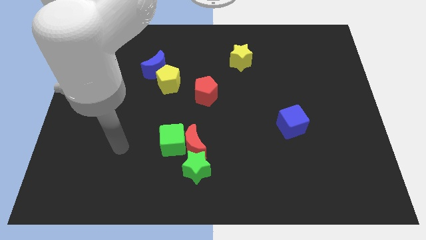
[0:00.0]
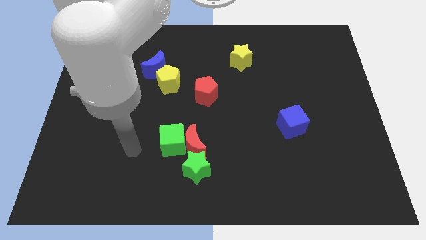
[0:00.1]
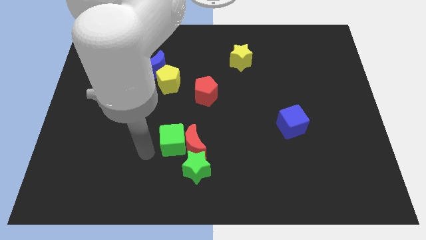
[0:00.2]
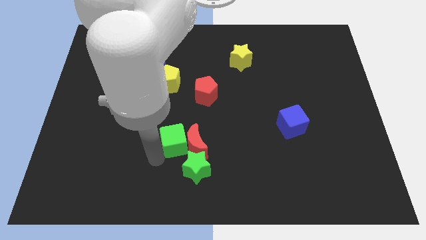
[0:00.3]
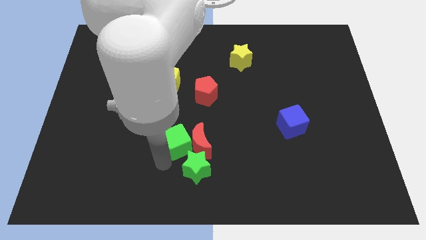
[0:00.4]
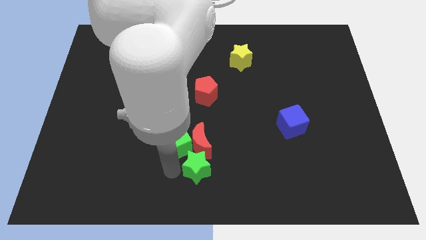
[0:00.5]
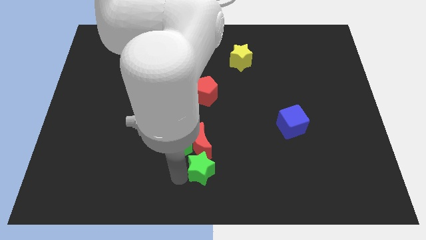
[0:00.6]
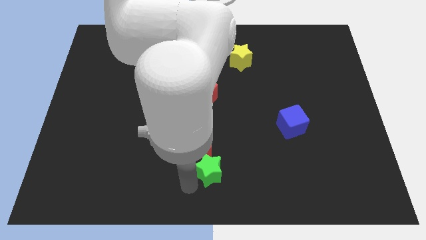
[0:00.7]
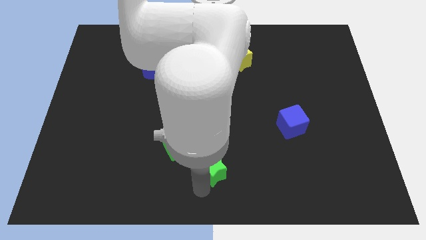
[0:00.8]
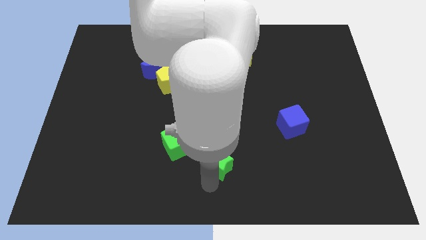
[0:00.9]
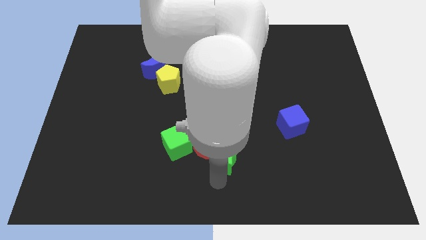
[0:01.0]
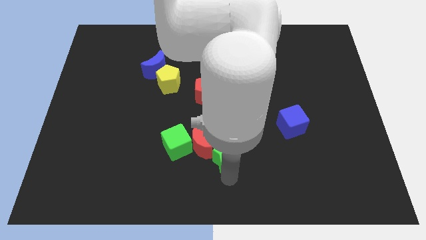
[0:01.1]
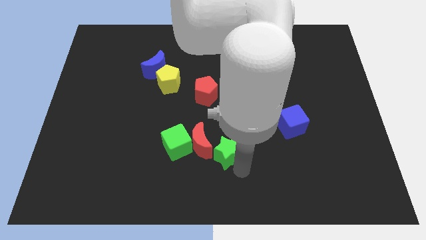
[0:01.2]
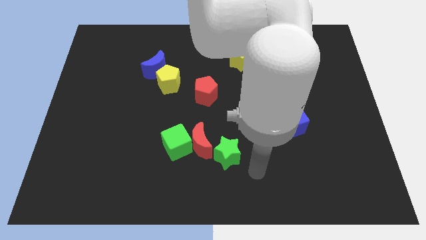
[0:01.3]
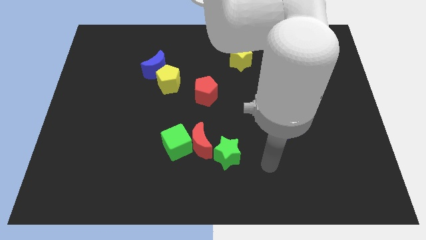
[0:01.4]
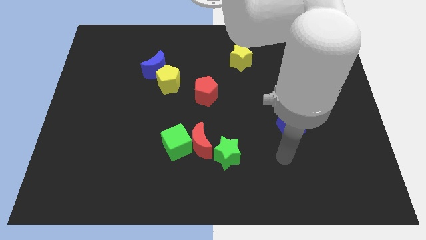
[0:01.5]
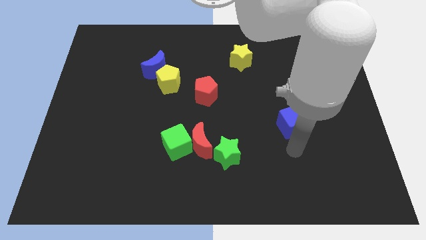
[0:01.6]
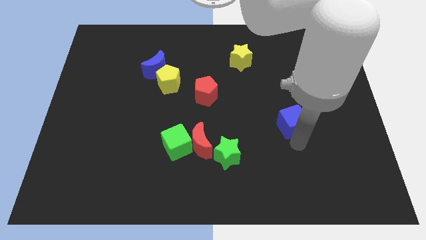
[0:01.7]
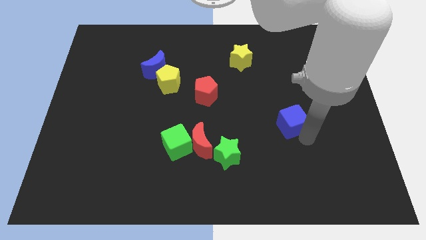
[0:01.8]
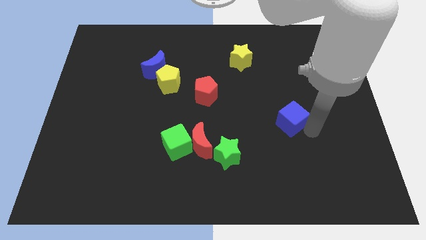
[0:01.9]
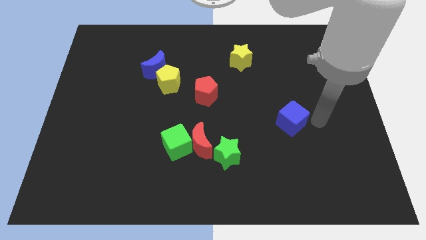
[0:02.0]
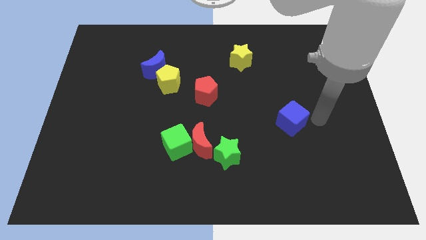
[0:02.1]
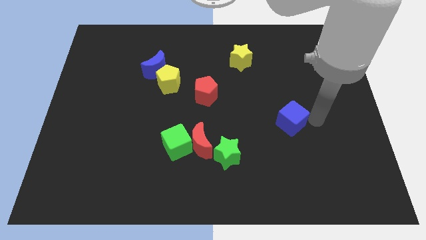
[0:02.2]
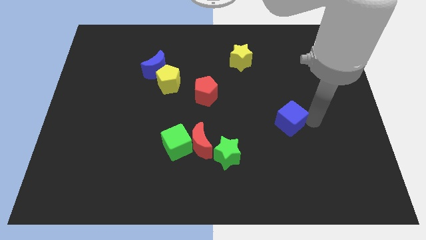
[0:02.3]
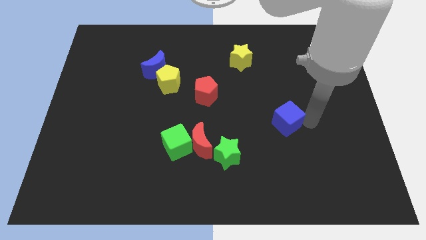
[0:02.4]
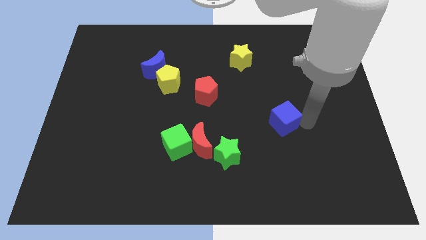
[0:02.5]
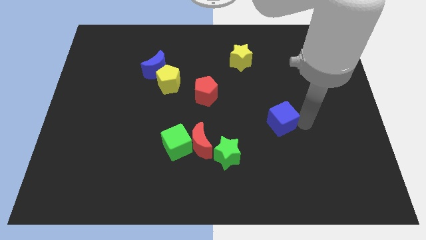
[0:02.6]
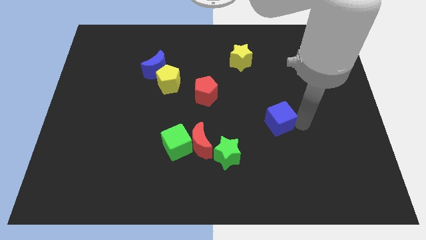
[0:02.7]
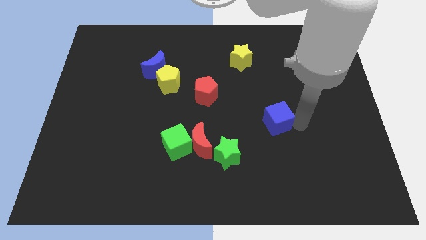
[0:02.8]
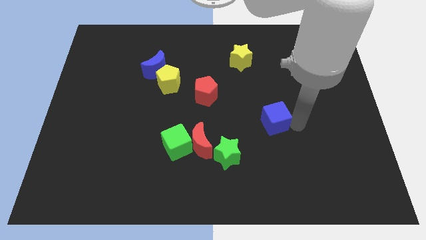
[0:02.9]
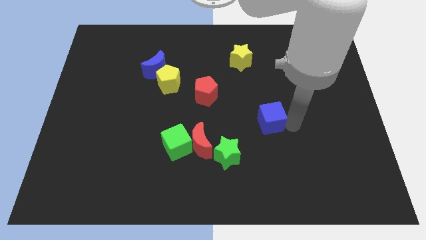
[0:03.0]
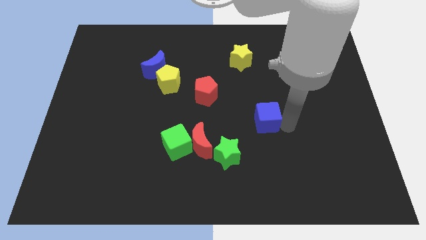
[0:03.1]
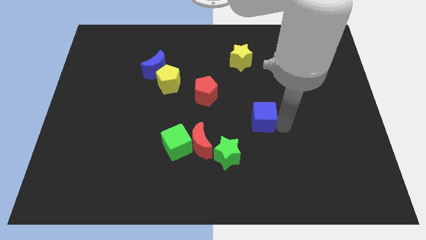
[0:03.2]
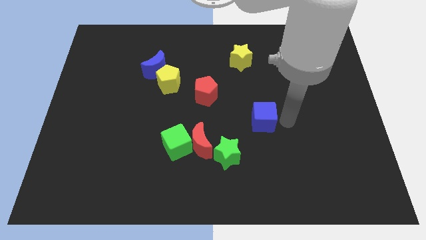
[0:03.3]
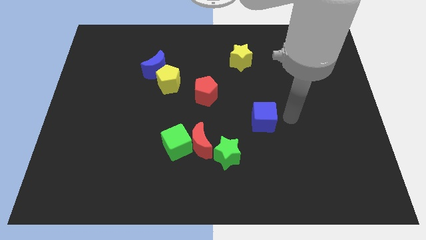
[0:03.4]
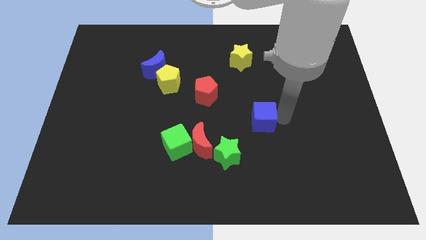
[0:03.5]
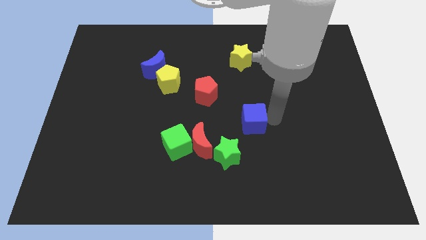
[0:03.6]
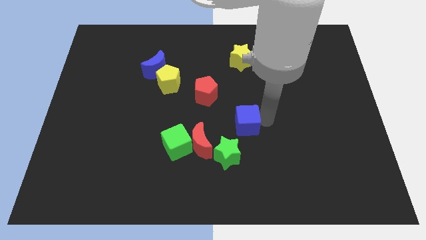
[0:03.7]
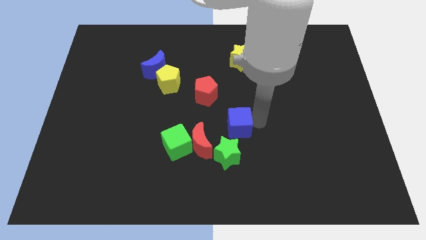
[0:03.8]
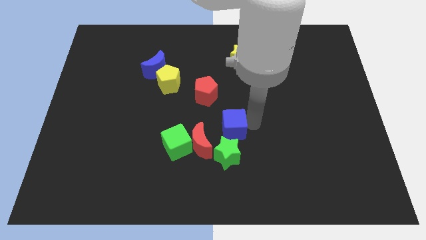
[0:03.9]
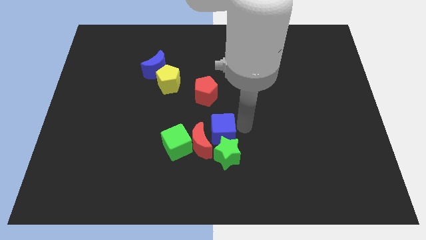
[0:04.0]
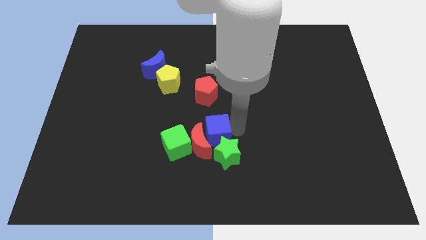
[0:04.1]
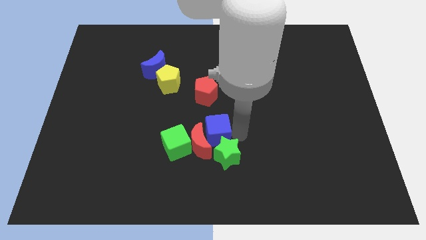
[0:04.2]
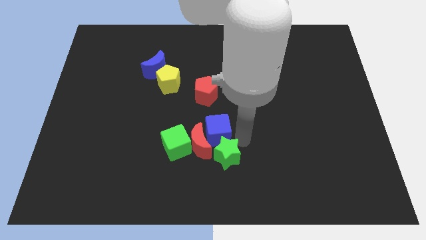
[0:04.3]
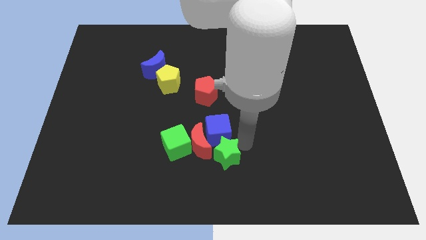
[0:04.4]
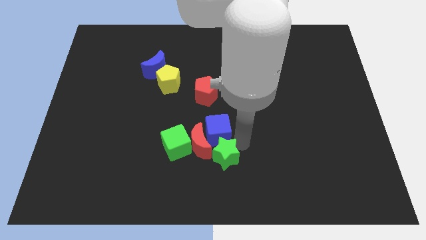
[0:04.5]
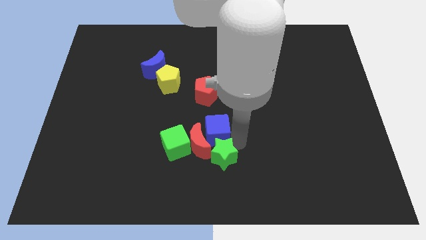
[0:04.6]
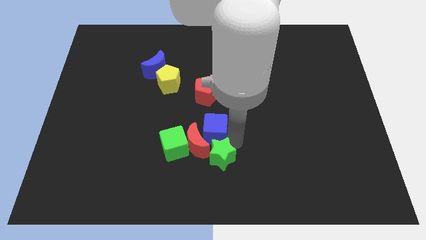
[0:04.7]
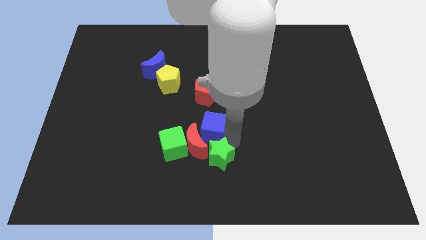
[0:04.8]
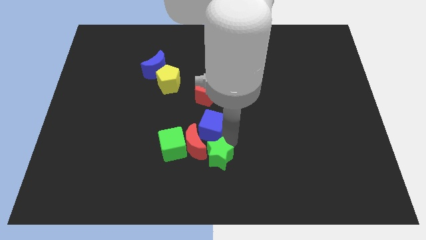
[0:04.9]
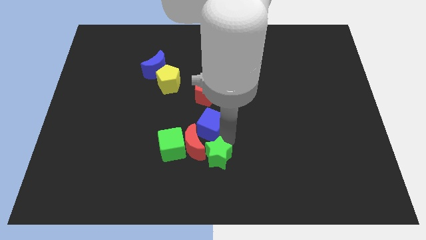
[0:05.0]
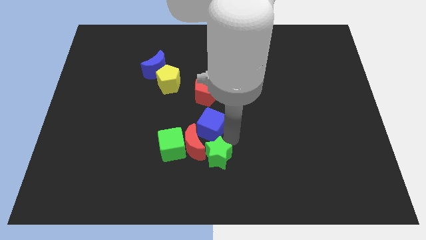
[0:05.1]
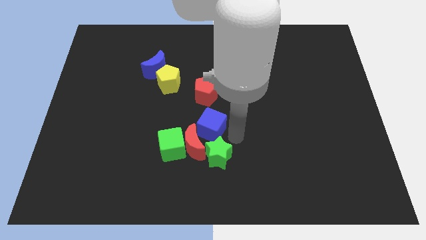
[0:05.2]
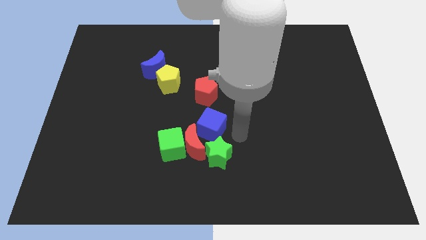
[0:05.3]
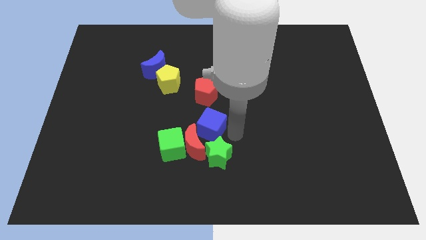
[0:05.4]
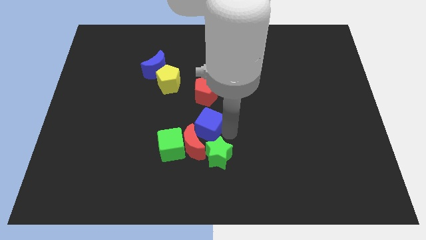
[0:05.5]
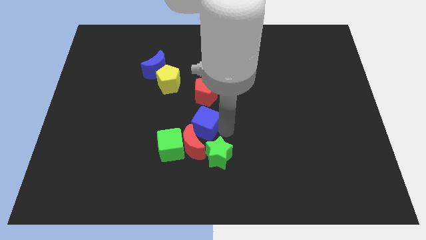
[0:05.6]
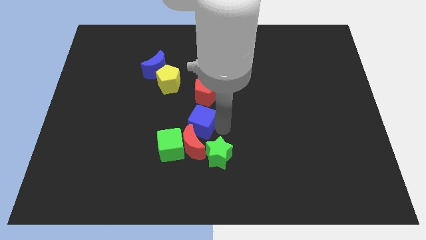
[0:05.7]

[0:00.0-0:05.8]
slide the blue cube left

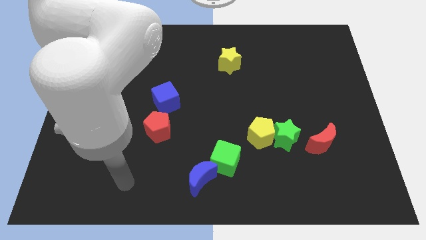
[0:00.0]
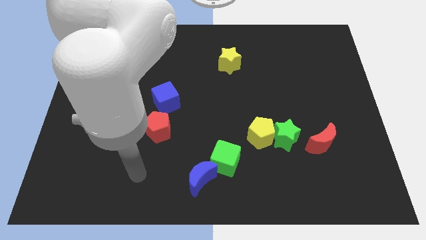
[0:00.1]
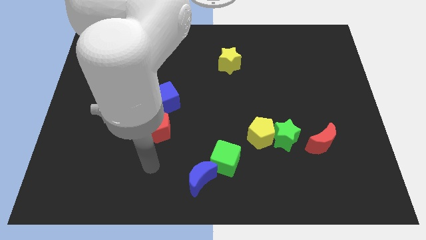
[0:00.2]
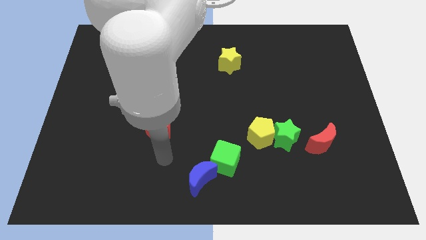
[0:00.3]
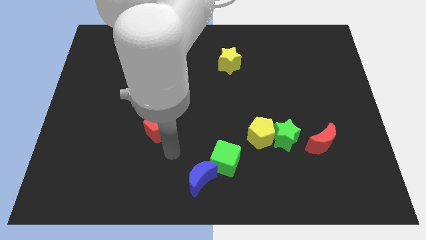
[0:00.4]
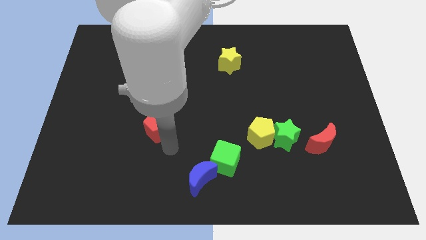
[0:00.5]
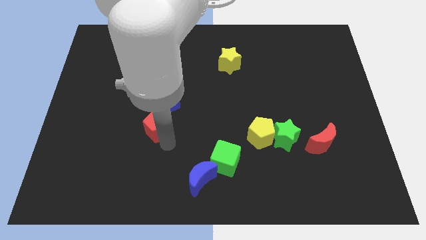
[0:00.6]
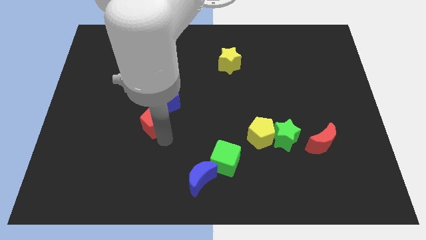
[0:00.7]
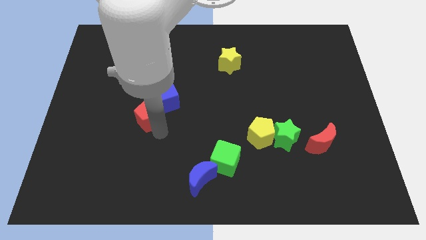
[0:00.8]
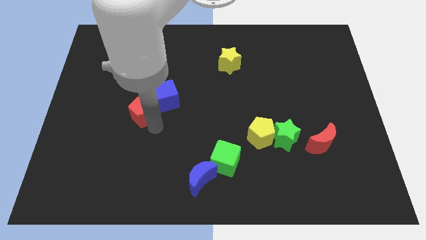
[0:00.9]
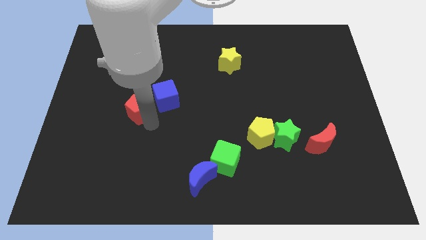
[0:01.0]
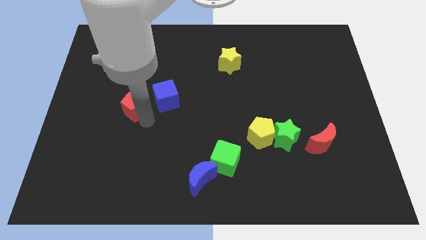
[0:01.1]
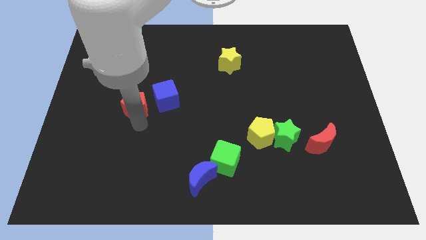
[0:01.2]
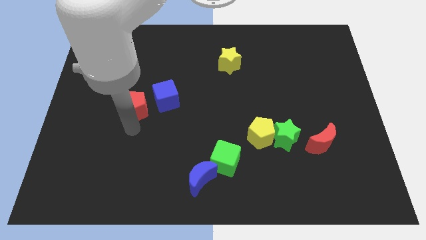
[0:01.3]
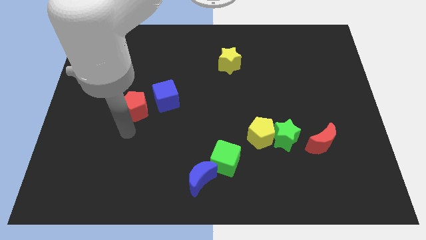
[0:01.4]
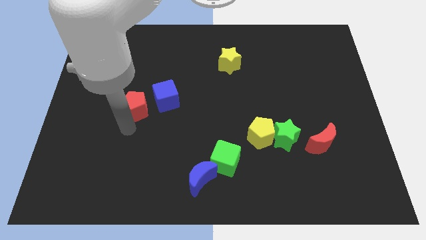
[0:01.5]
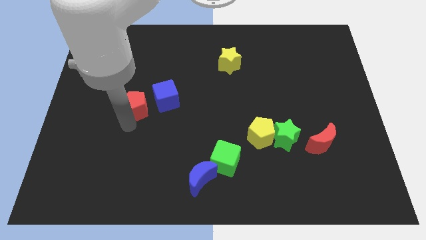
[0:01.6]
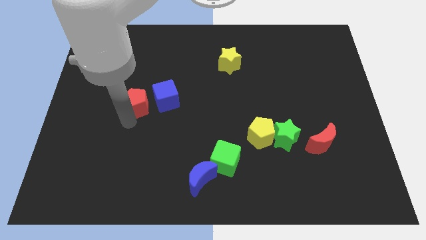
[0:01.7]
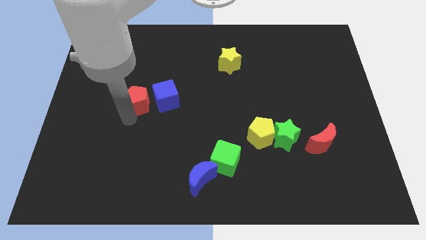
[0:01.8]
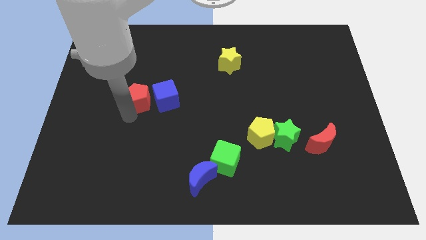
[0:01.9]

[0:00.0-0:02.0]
slide the red pentagon slightly up

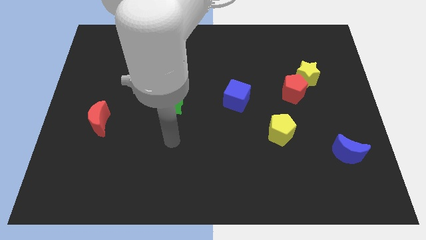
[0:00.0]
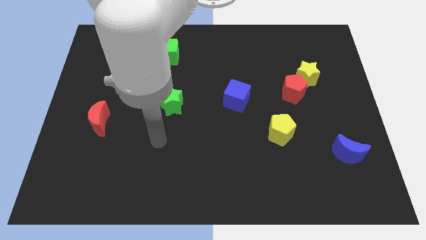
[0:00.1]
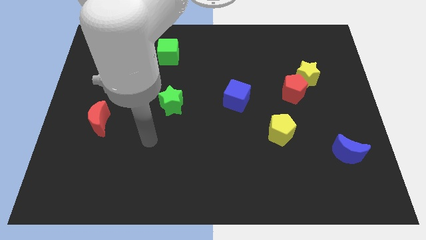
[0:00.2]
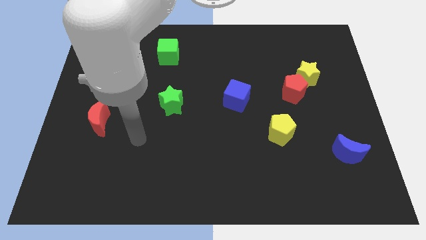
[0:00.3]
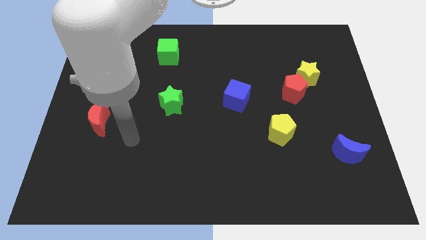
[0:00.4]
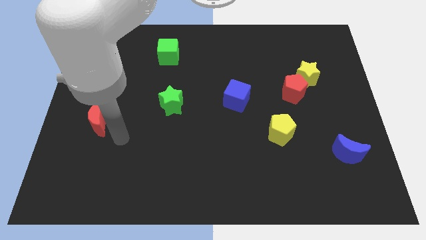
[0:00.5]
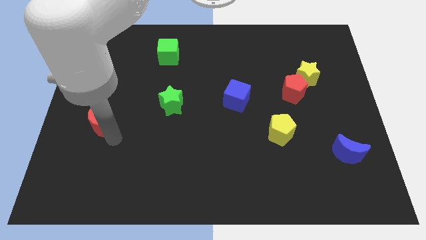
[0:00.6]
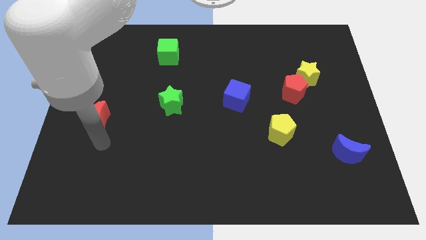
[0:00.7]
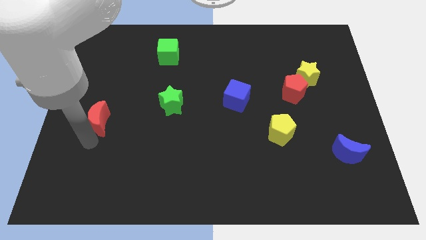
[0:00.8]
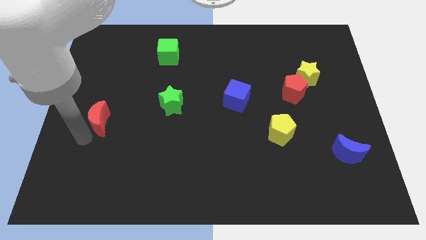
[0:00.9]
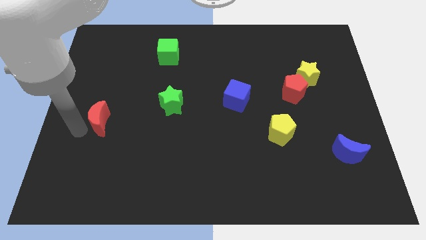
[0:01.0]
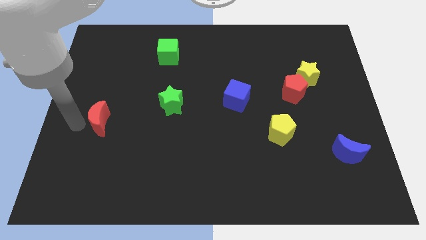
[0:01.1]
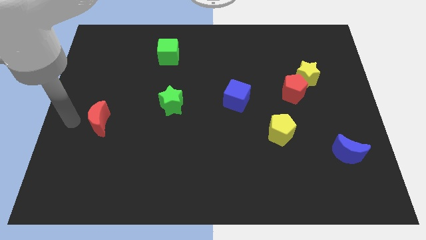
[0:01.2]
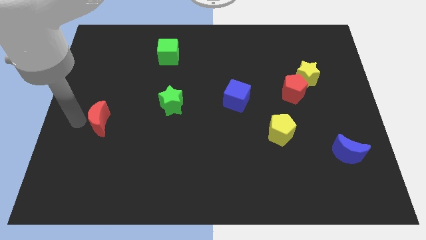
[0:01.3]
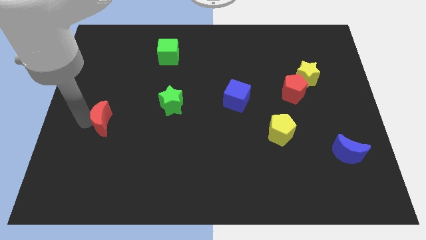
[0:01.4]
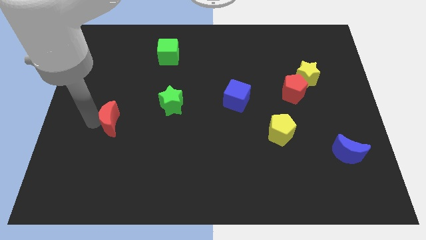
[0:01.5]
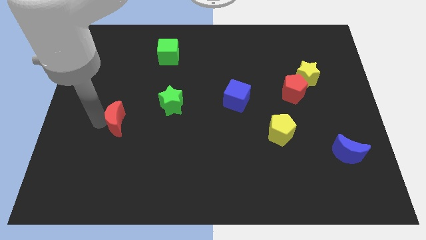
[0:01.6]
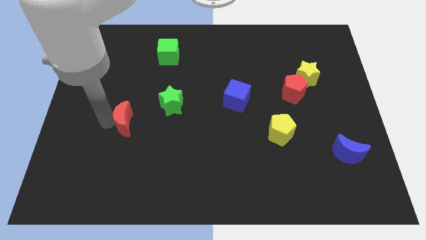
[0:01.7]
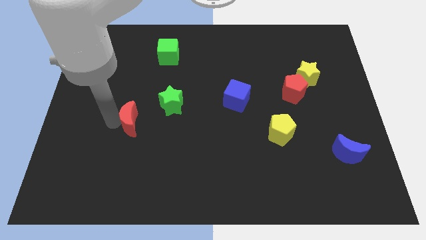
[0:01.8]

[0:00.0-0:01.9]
slightly move the red moon right
